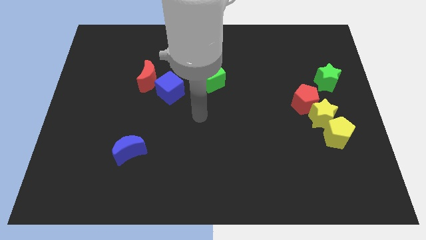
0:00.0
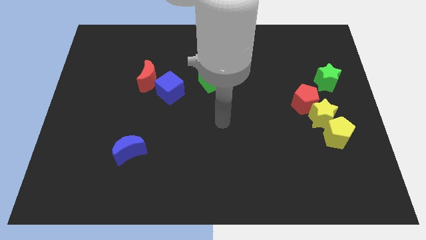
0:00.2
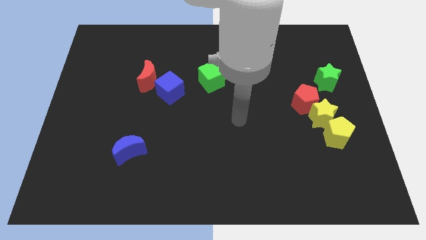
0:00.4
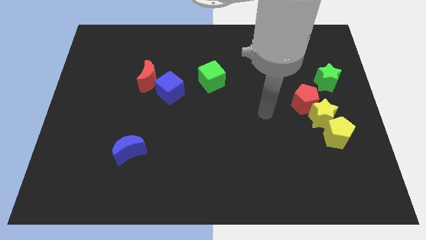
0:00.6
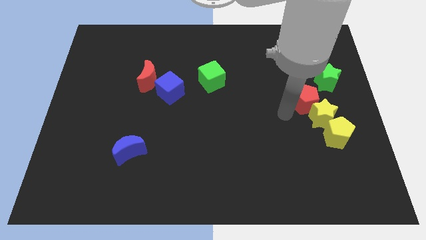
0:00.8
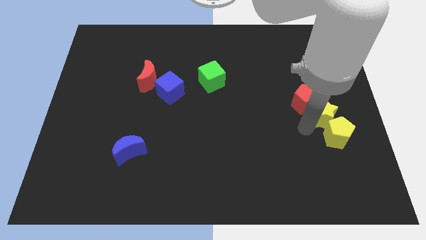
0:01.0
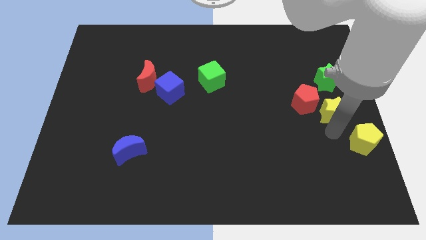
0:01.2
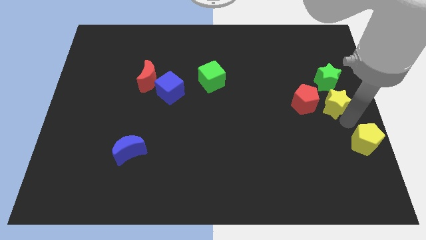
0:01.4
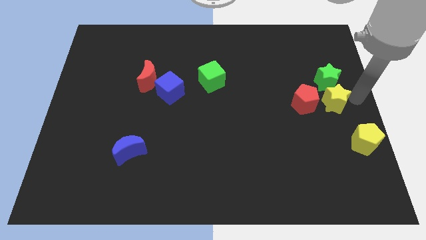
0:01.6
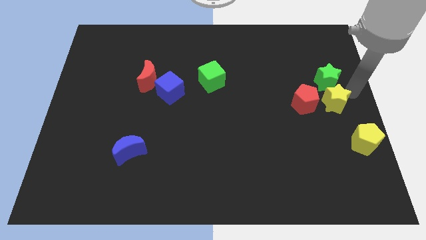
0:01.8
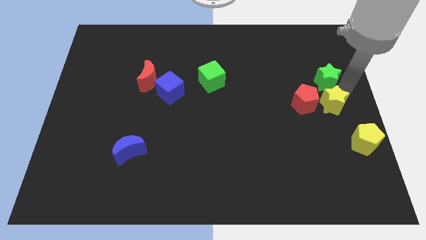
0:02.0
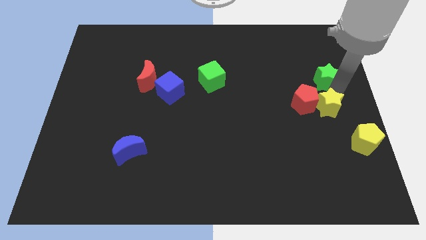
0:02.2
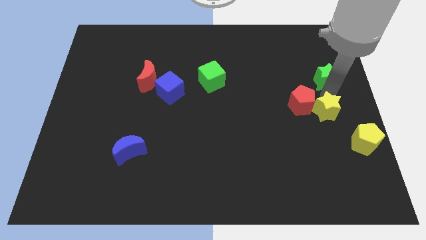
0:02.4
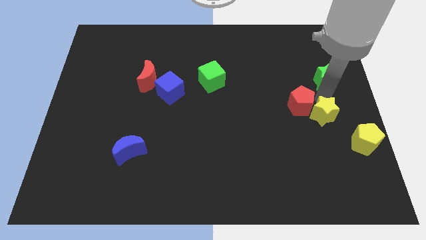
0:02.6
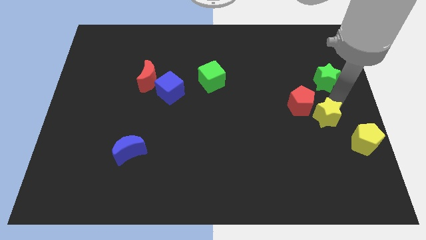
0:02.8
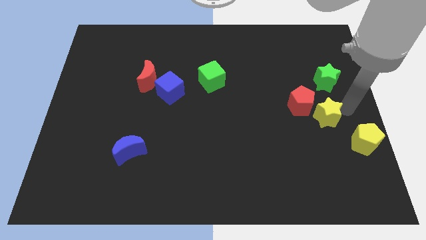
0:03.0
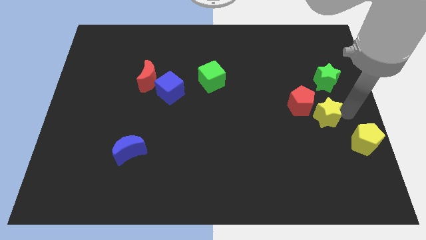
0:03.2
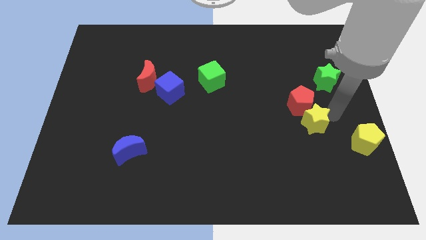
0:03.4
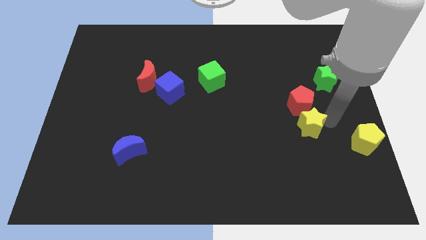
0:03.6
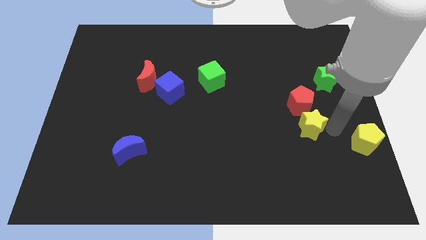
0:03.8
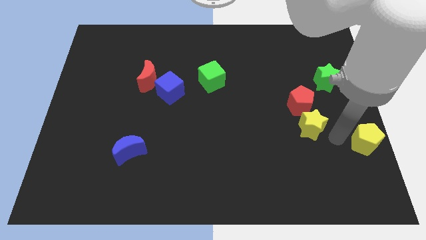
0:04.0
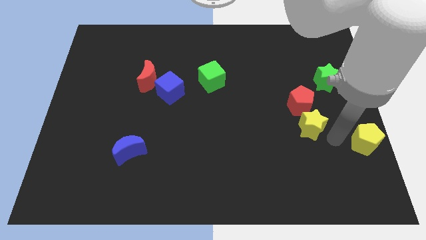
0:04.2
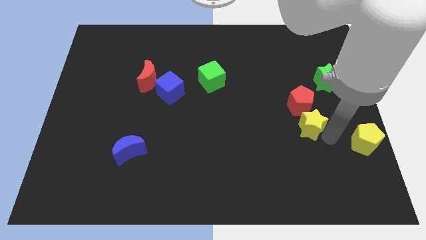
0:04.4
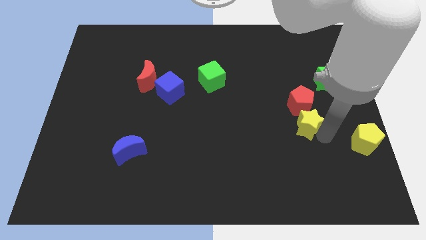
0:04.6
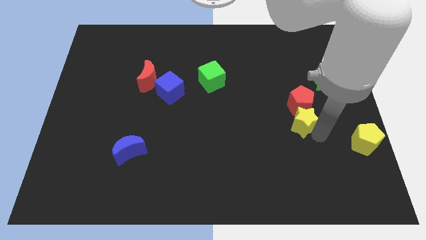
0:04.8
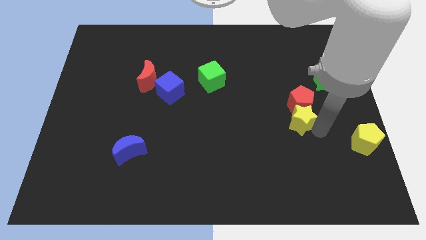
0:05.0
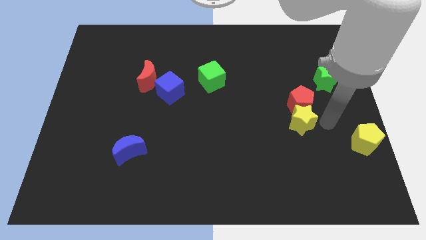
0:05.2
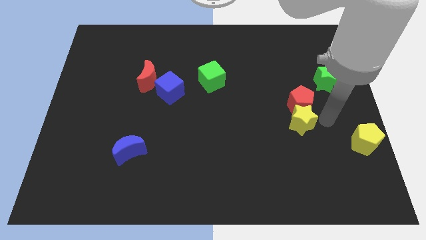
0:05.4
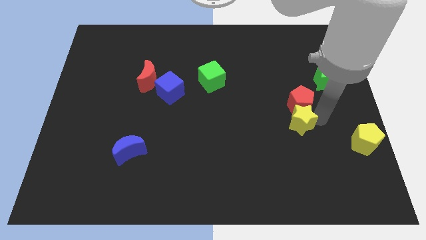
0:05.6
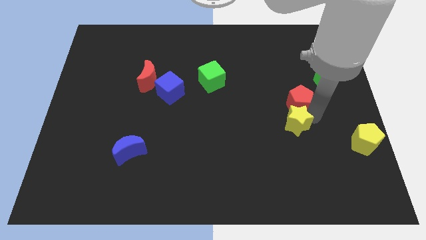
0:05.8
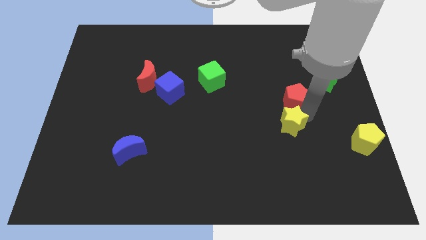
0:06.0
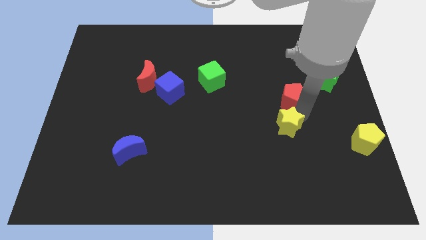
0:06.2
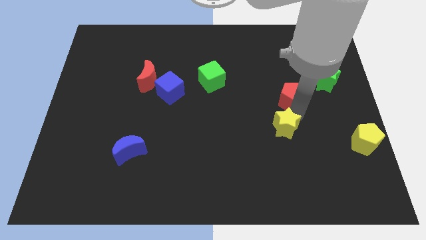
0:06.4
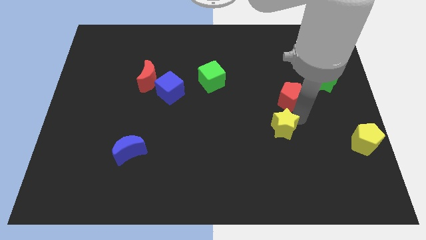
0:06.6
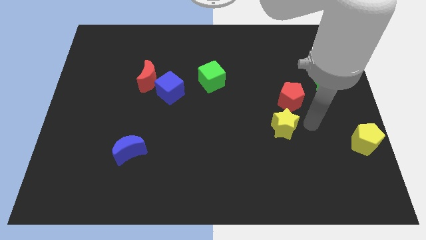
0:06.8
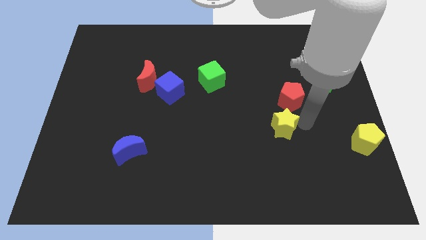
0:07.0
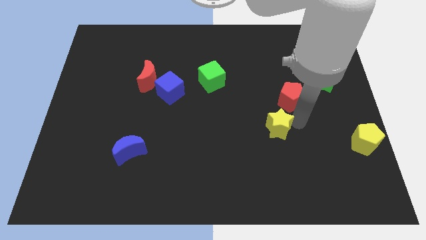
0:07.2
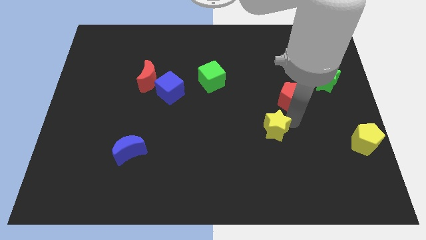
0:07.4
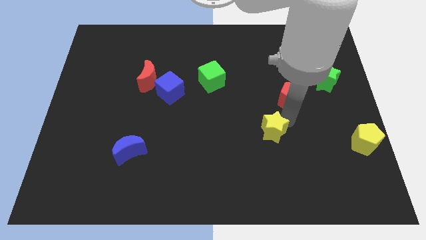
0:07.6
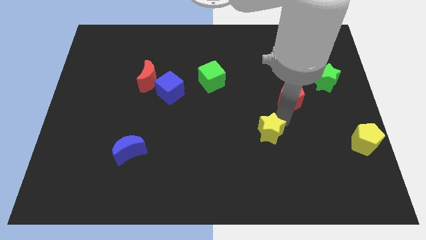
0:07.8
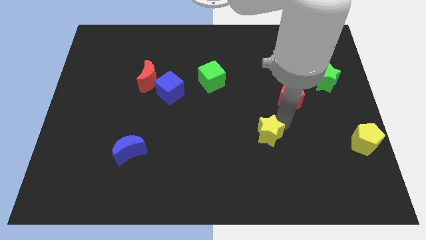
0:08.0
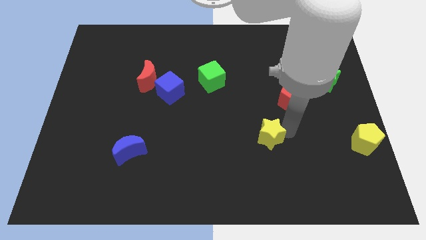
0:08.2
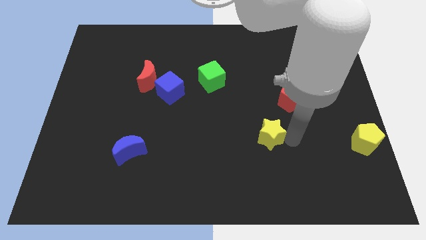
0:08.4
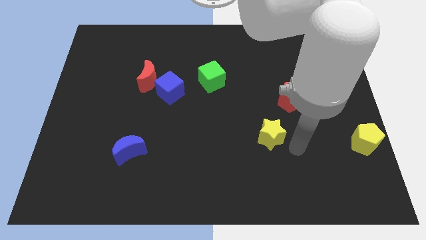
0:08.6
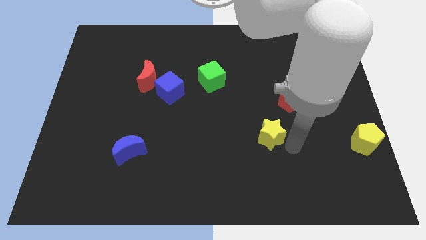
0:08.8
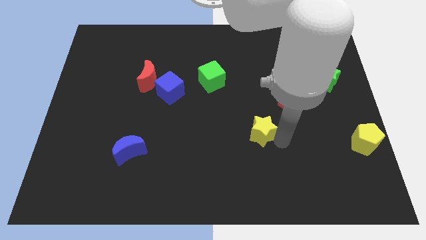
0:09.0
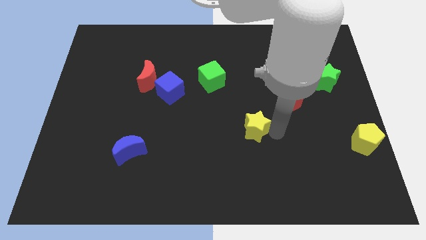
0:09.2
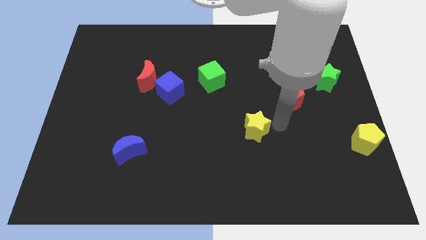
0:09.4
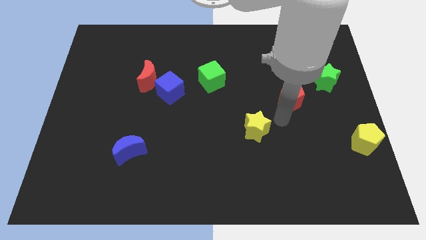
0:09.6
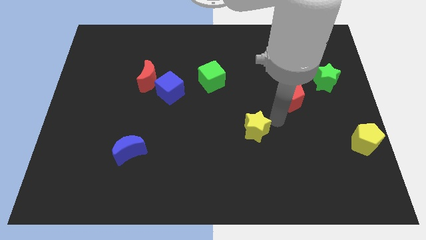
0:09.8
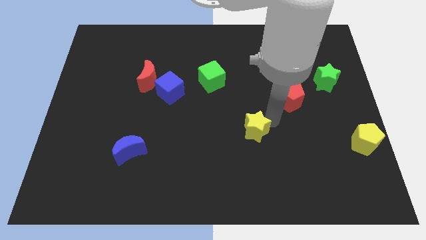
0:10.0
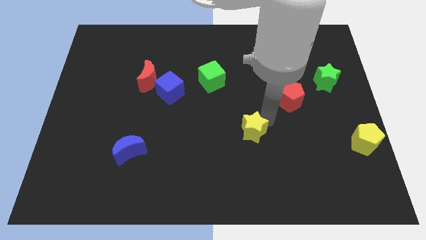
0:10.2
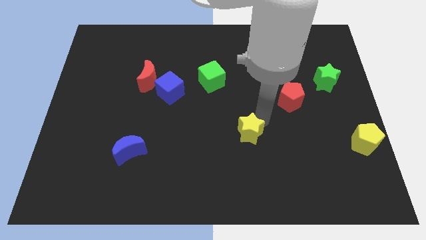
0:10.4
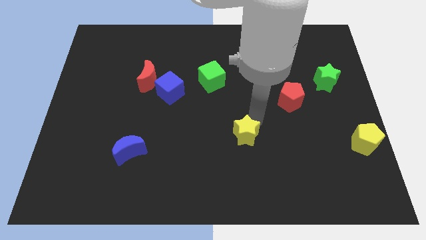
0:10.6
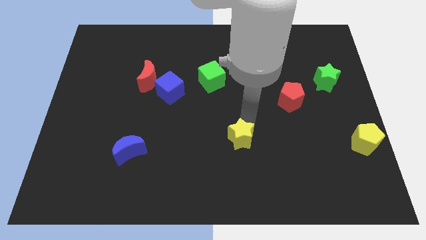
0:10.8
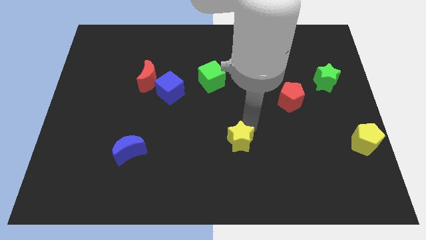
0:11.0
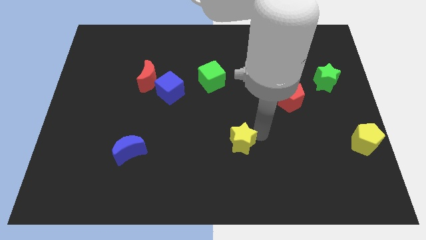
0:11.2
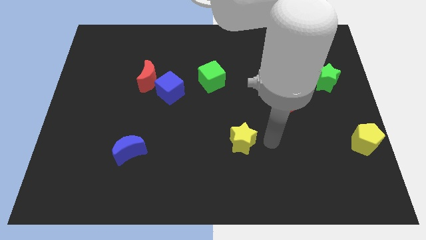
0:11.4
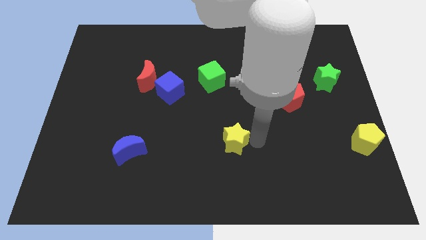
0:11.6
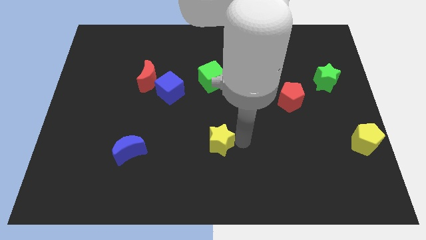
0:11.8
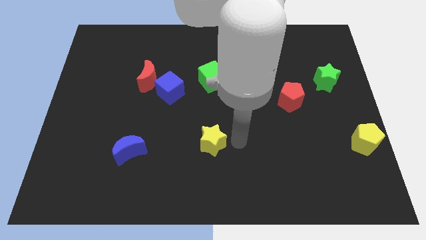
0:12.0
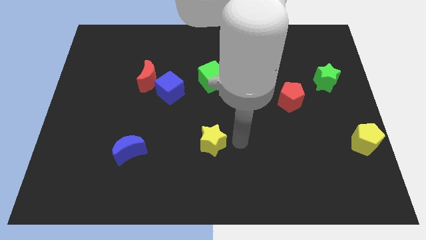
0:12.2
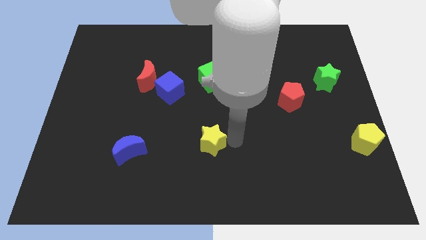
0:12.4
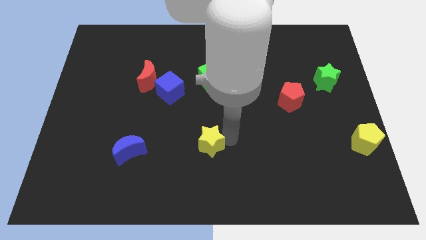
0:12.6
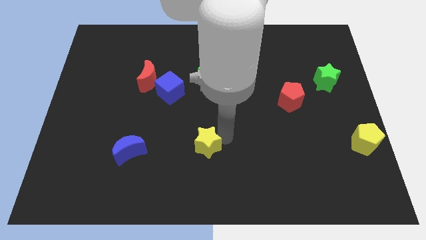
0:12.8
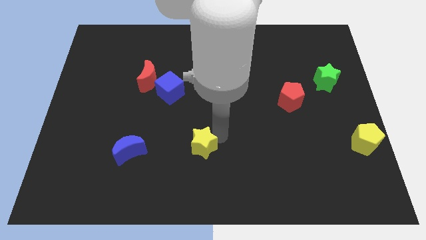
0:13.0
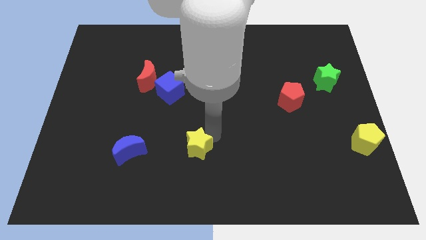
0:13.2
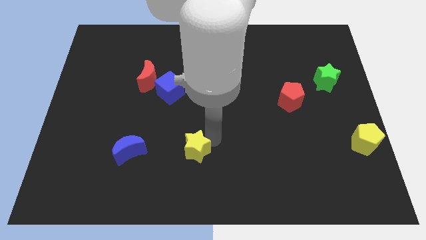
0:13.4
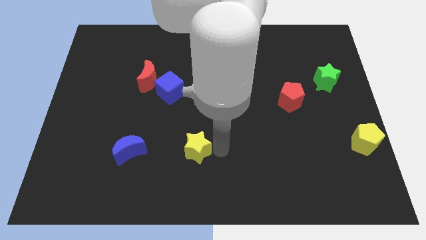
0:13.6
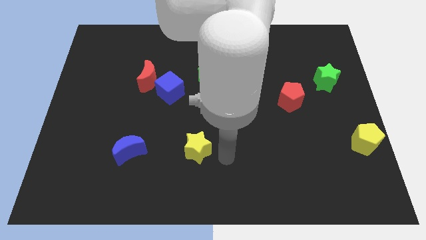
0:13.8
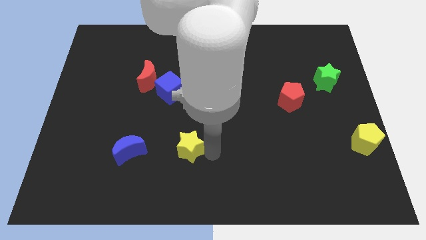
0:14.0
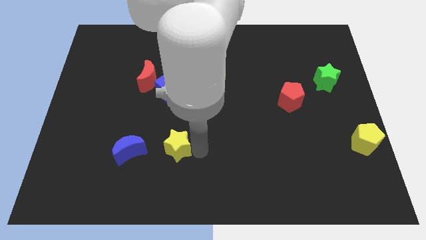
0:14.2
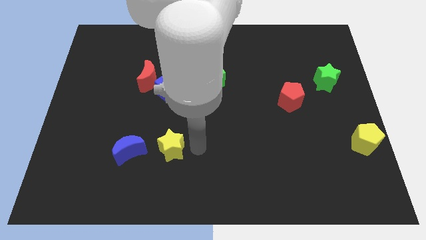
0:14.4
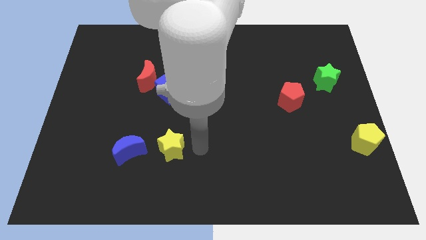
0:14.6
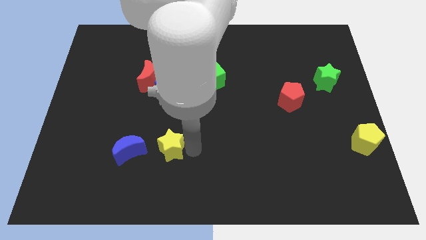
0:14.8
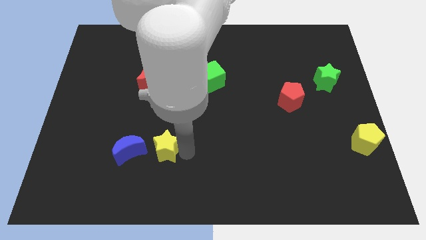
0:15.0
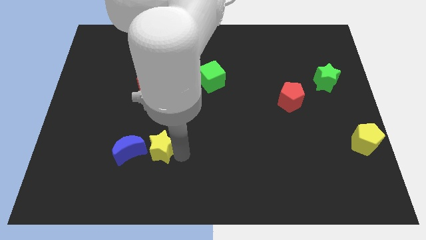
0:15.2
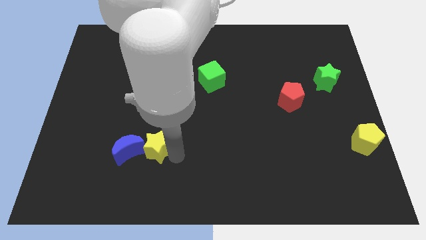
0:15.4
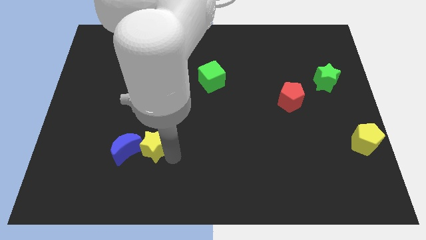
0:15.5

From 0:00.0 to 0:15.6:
move the yellow star towards the blue moon
